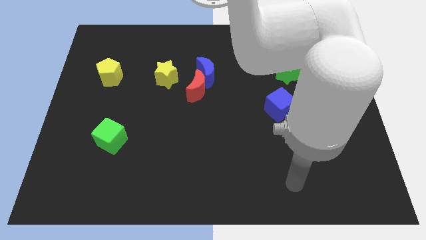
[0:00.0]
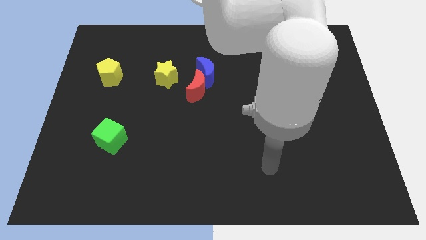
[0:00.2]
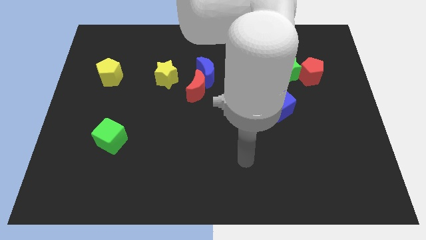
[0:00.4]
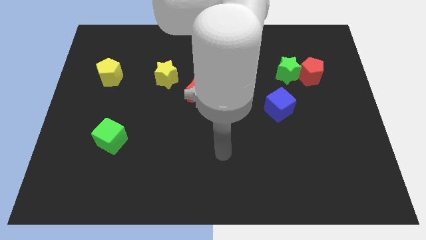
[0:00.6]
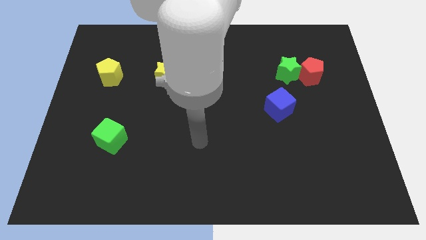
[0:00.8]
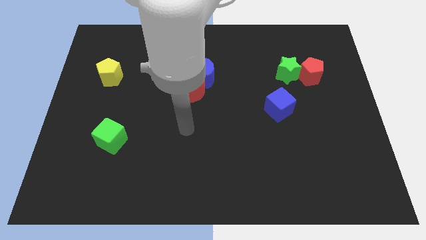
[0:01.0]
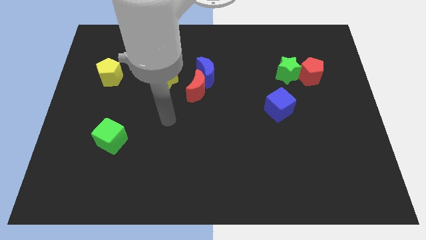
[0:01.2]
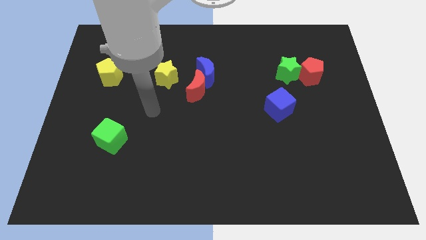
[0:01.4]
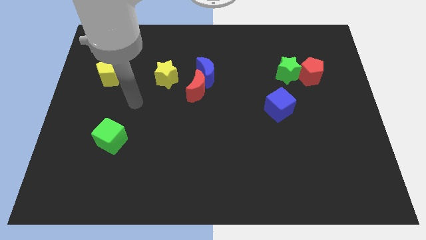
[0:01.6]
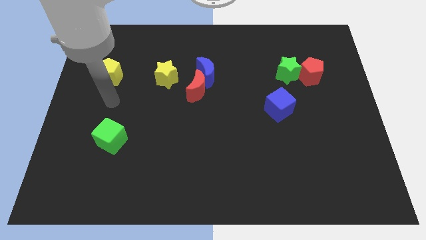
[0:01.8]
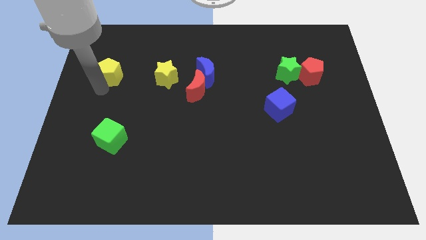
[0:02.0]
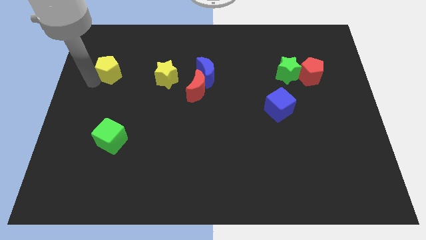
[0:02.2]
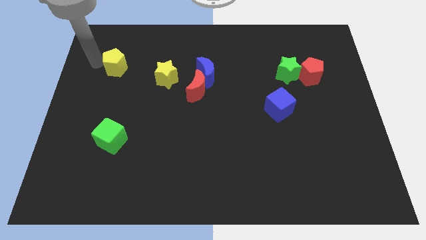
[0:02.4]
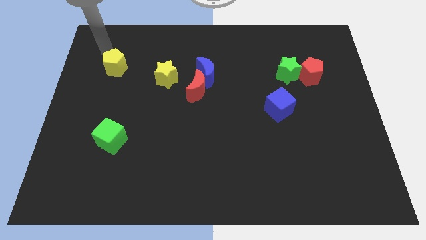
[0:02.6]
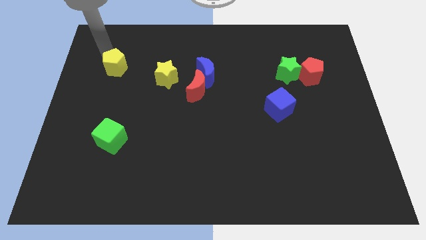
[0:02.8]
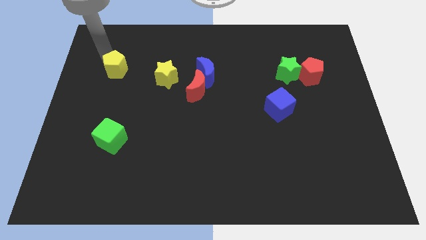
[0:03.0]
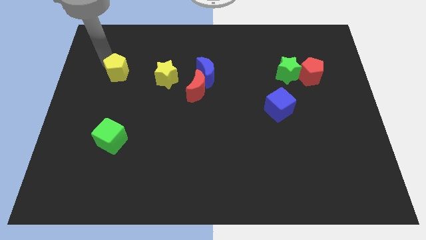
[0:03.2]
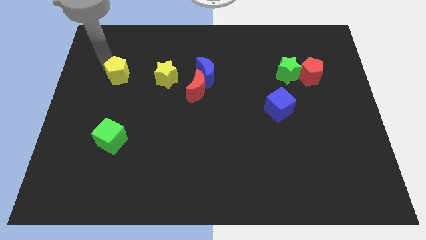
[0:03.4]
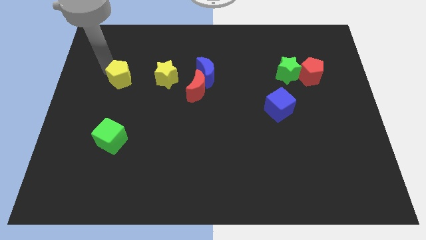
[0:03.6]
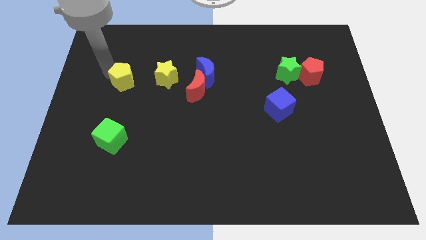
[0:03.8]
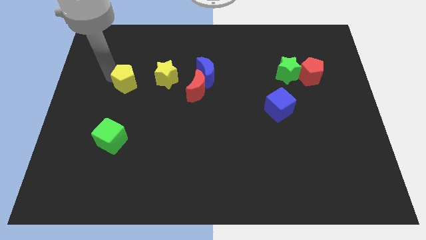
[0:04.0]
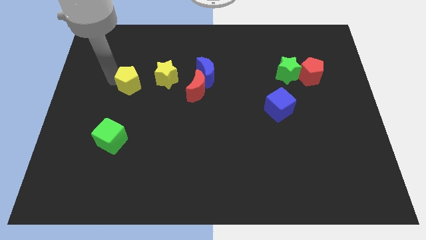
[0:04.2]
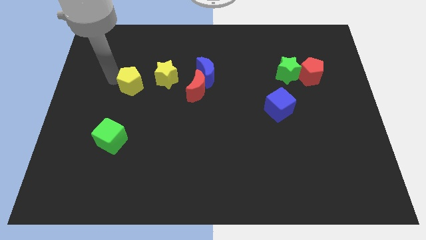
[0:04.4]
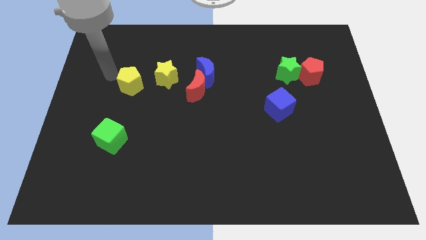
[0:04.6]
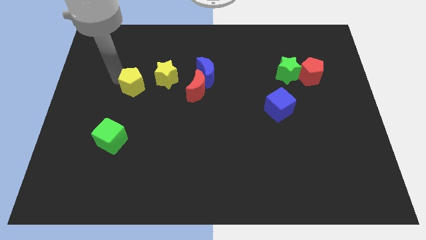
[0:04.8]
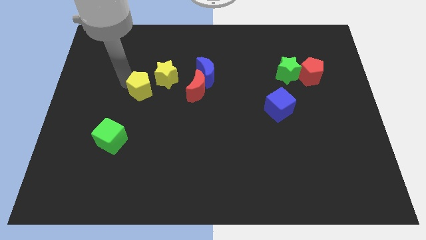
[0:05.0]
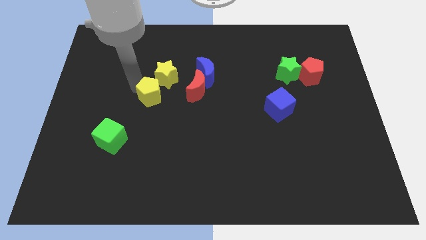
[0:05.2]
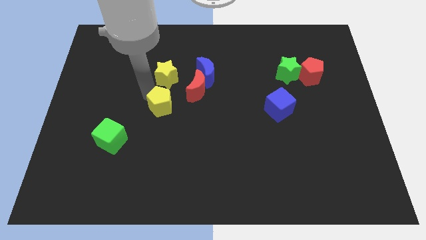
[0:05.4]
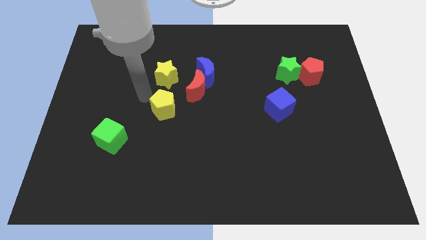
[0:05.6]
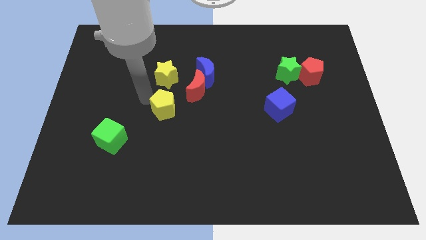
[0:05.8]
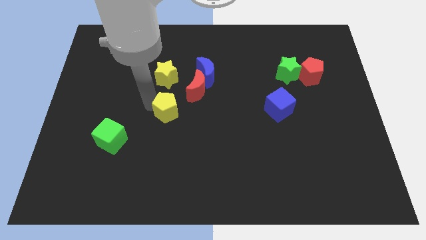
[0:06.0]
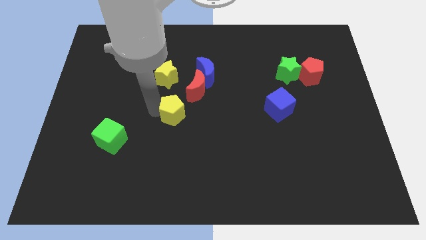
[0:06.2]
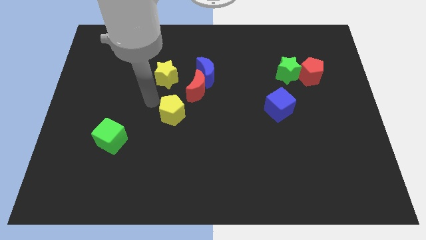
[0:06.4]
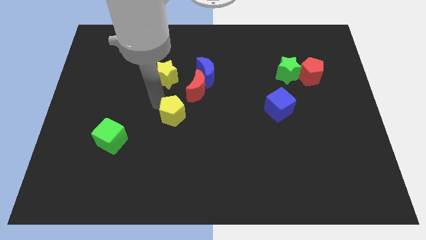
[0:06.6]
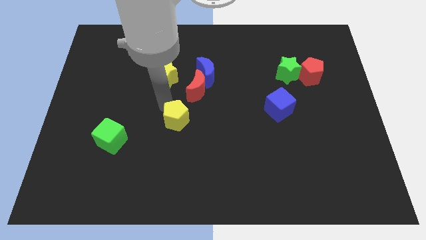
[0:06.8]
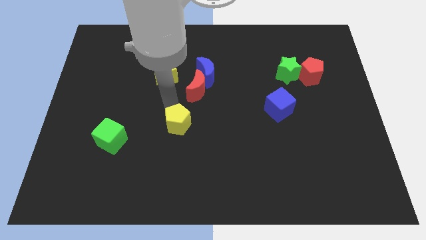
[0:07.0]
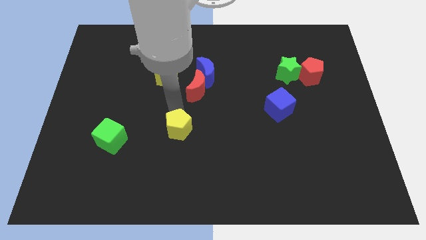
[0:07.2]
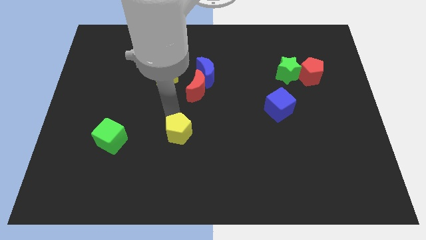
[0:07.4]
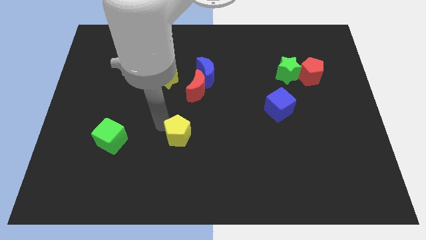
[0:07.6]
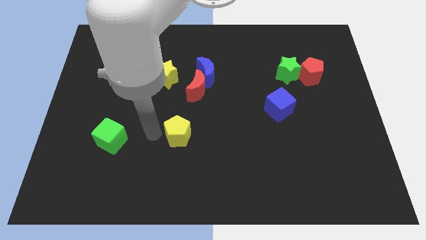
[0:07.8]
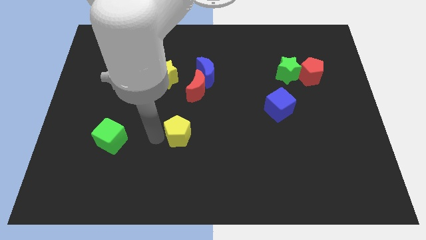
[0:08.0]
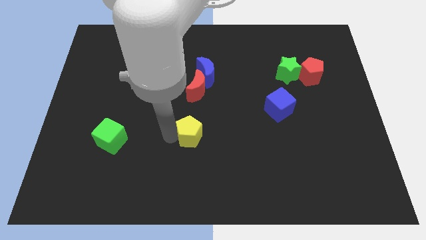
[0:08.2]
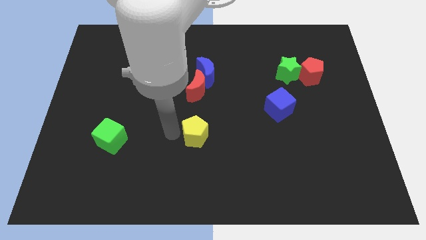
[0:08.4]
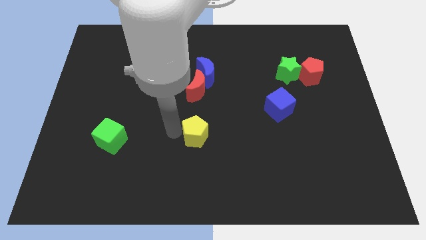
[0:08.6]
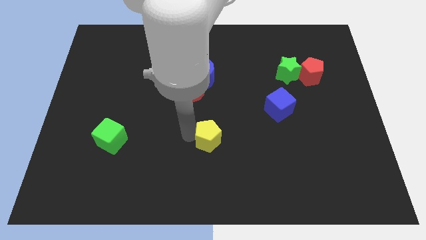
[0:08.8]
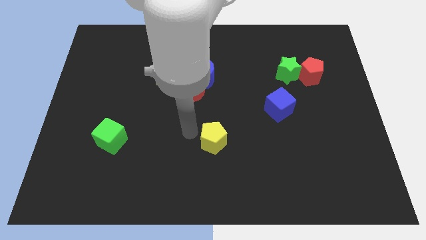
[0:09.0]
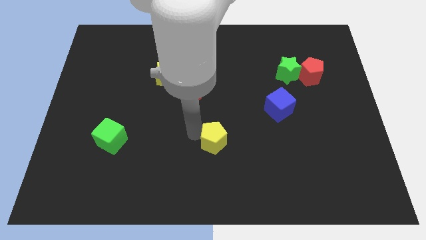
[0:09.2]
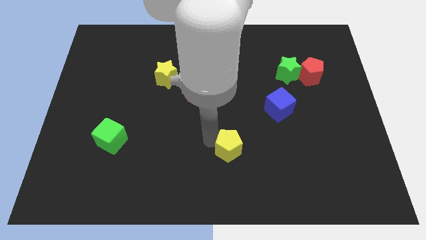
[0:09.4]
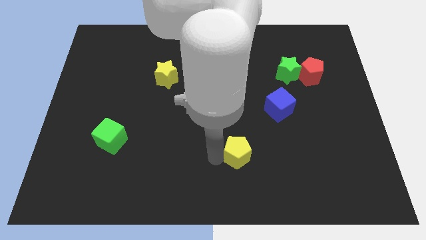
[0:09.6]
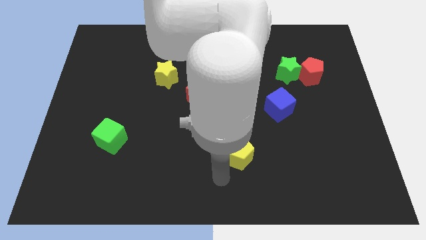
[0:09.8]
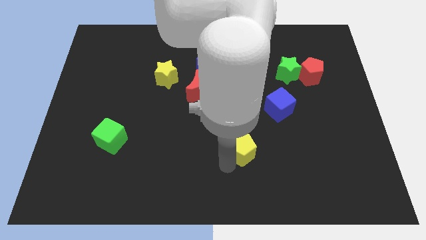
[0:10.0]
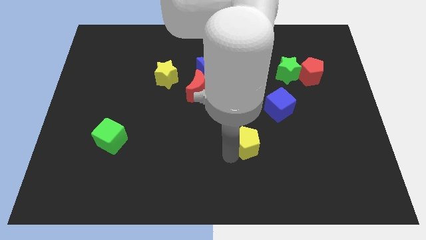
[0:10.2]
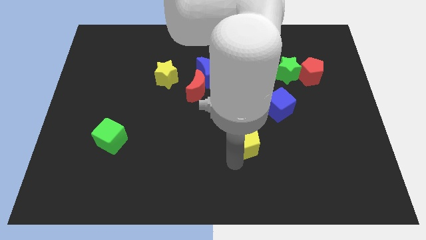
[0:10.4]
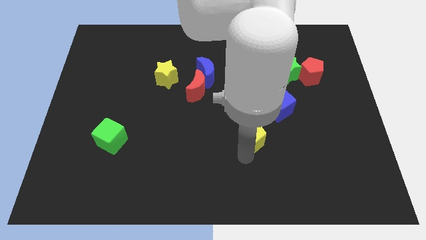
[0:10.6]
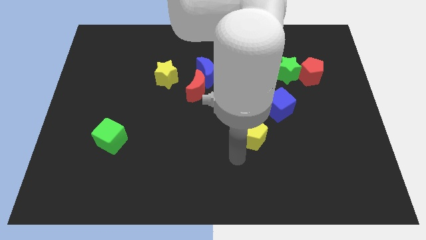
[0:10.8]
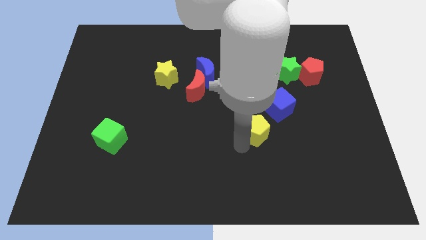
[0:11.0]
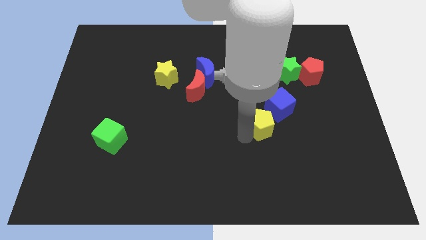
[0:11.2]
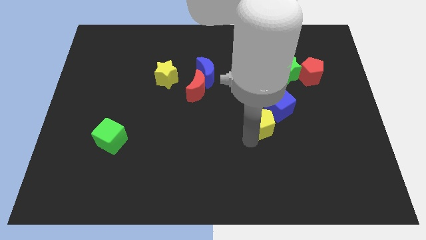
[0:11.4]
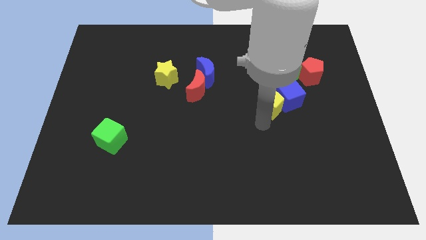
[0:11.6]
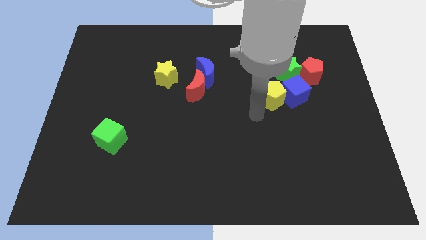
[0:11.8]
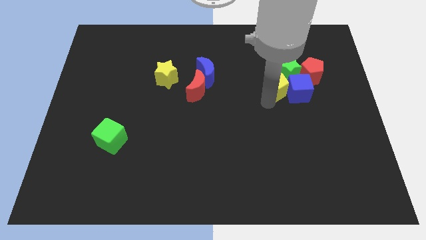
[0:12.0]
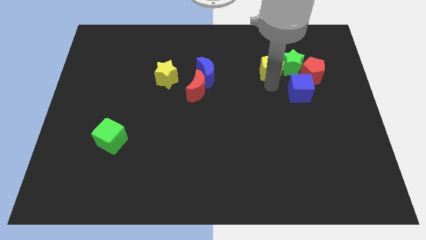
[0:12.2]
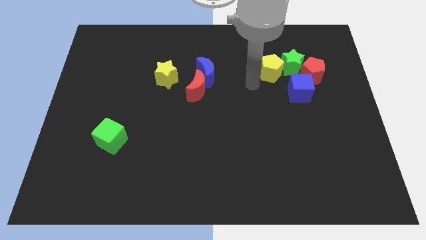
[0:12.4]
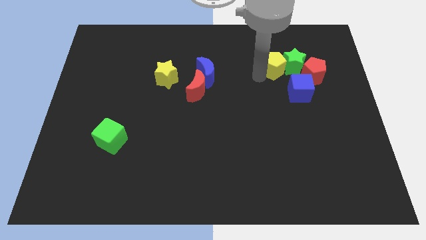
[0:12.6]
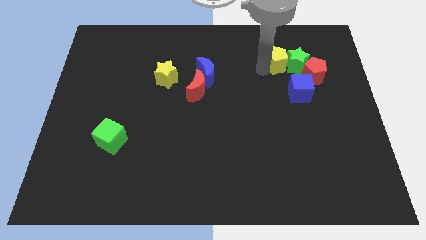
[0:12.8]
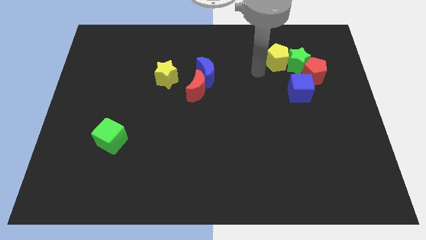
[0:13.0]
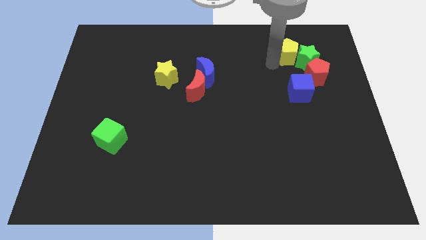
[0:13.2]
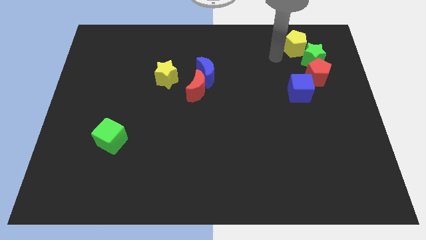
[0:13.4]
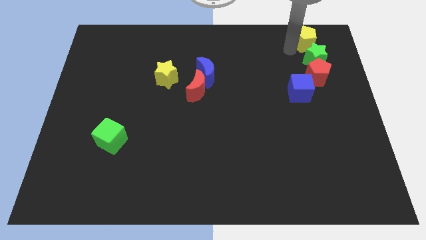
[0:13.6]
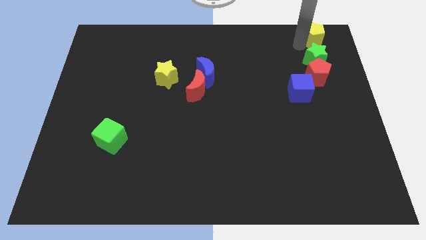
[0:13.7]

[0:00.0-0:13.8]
put the yellow pentagon to the top right corner
